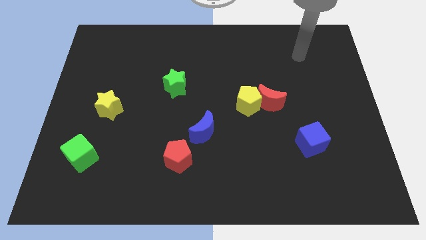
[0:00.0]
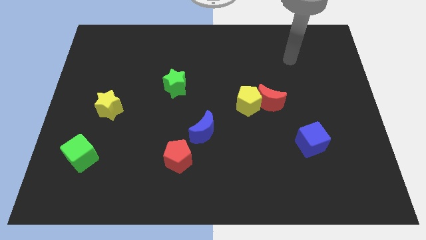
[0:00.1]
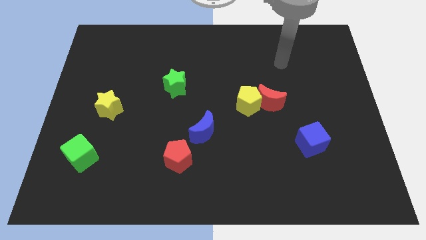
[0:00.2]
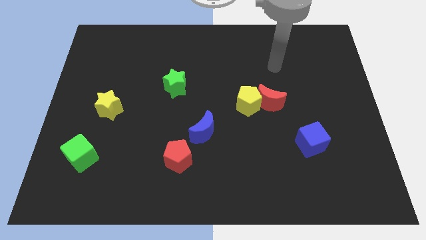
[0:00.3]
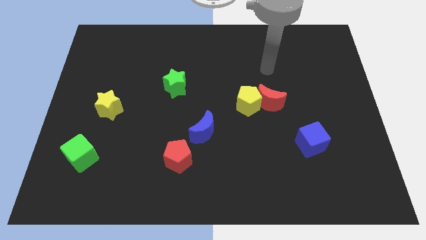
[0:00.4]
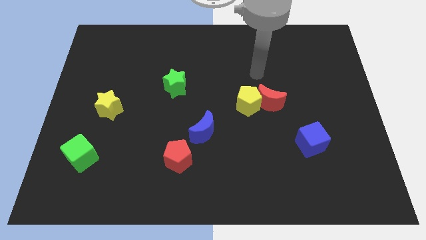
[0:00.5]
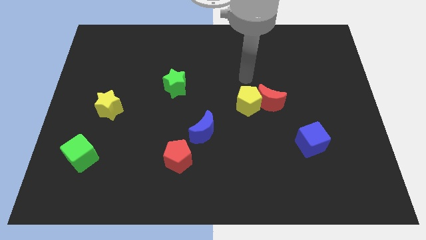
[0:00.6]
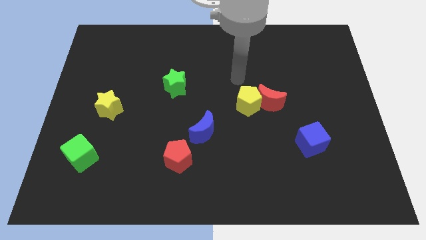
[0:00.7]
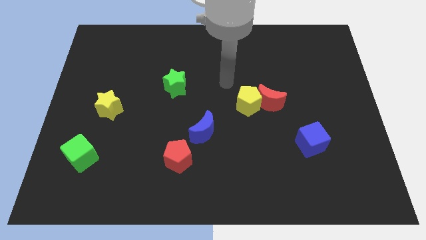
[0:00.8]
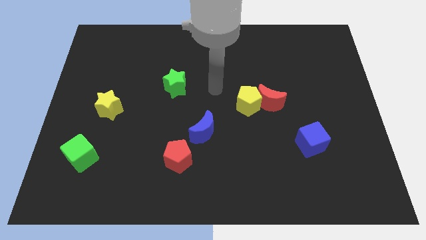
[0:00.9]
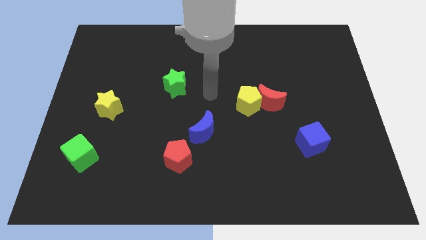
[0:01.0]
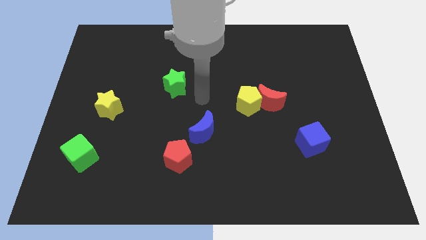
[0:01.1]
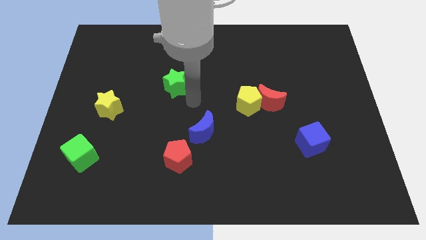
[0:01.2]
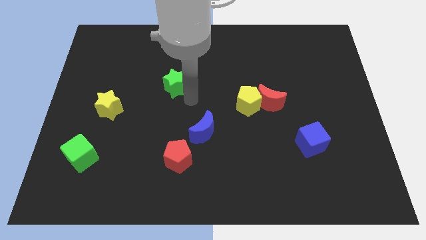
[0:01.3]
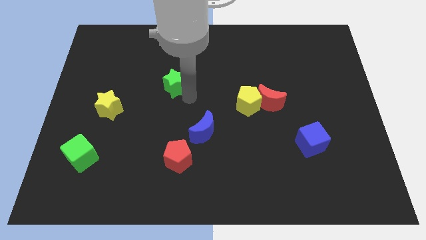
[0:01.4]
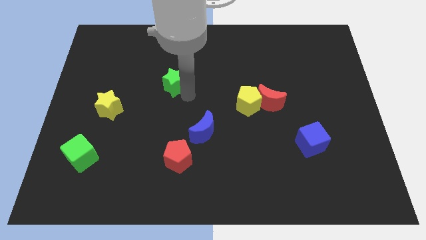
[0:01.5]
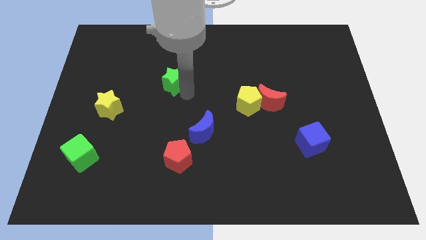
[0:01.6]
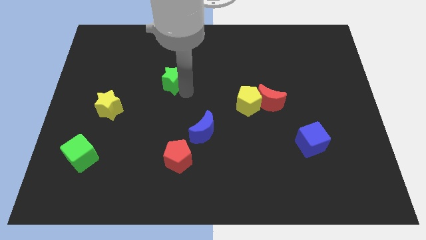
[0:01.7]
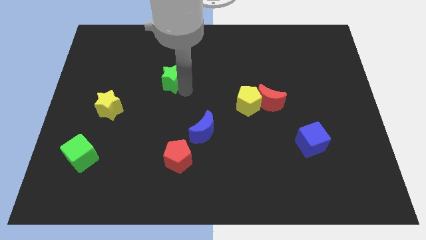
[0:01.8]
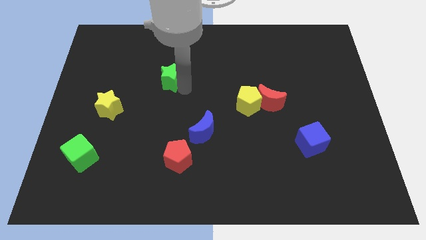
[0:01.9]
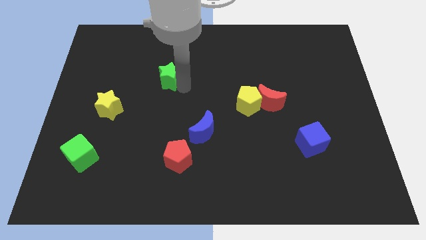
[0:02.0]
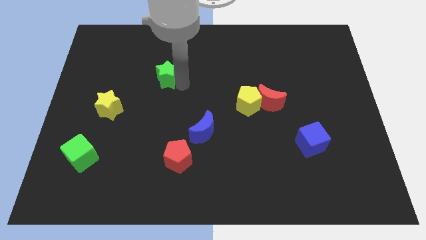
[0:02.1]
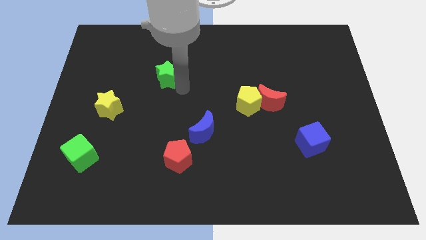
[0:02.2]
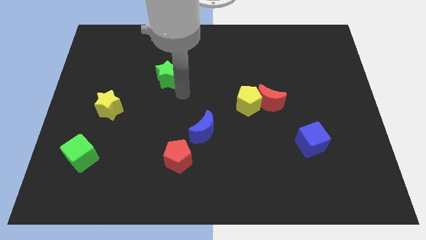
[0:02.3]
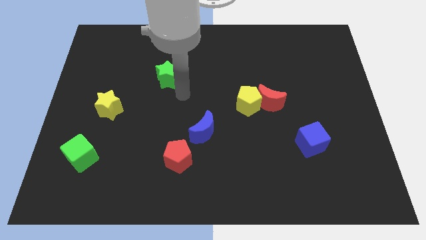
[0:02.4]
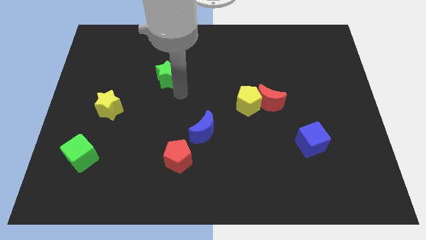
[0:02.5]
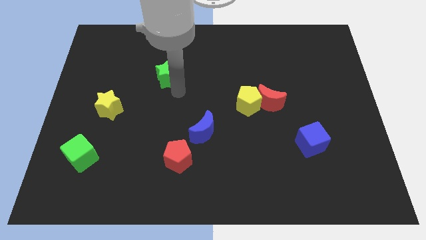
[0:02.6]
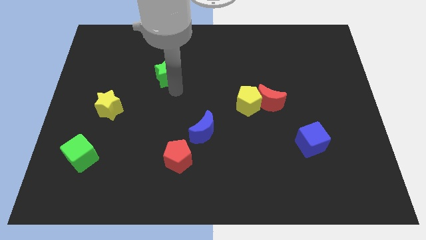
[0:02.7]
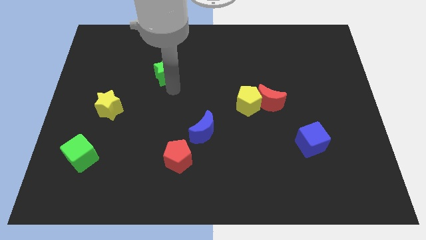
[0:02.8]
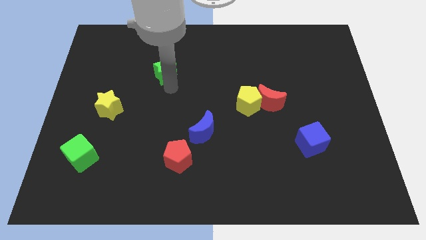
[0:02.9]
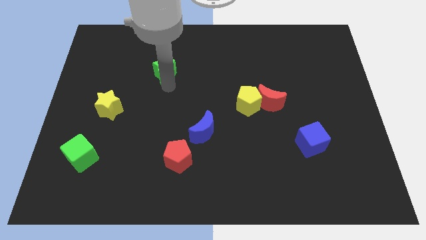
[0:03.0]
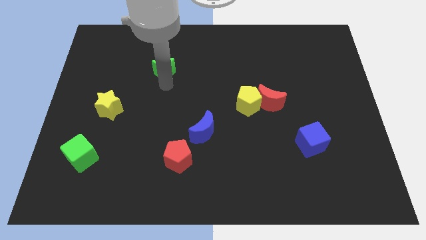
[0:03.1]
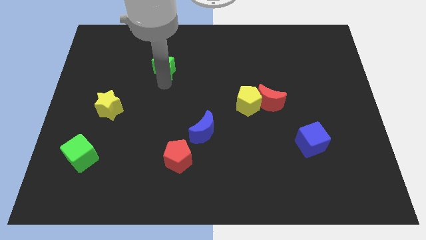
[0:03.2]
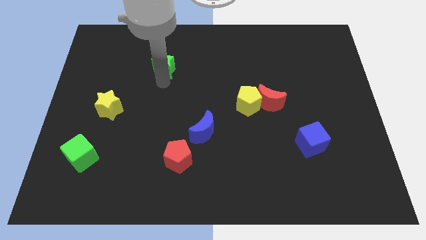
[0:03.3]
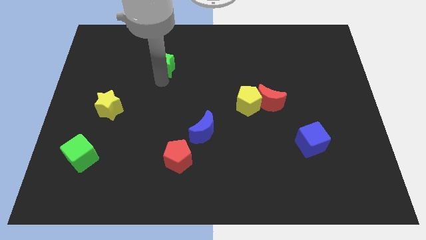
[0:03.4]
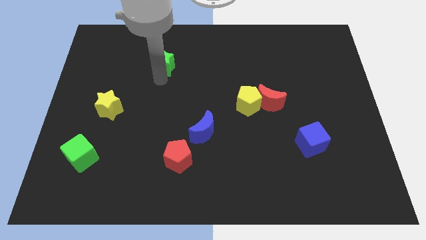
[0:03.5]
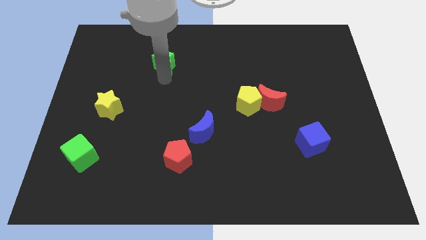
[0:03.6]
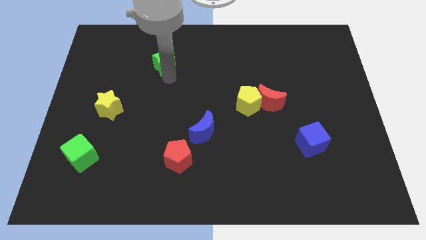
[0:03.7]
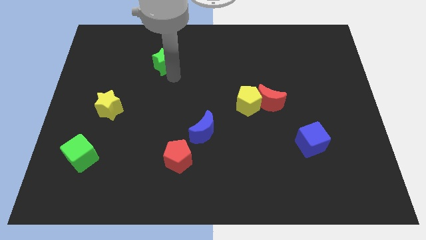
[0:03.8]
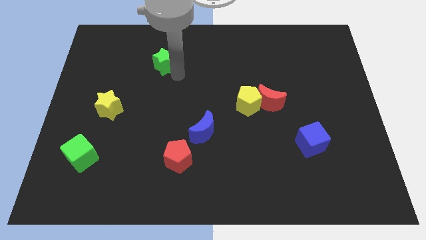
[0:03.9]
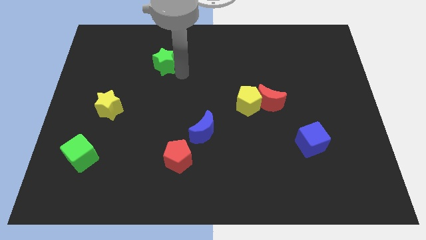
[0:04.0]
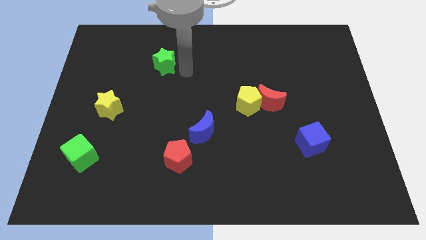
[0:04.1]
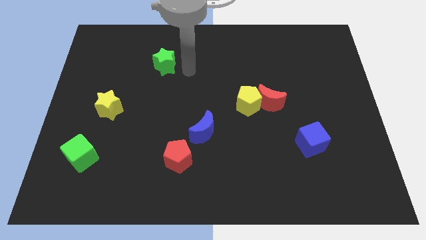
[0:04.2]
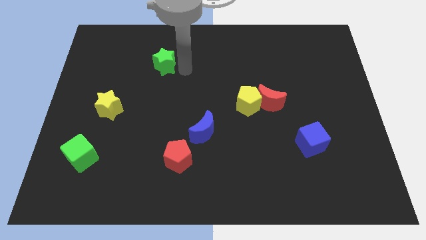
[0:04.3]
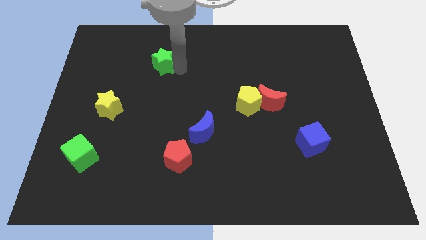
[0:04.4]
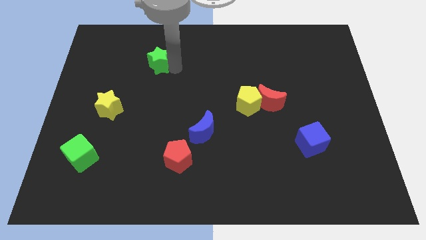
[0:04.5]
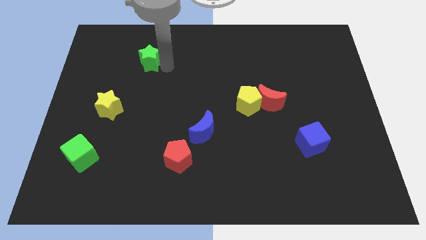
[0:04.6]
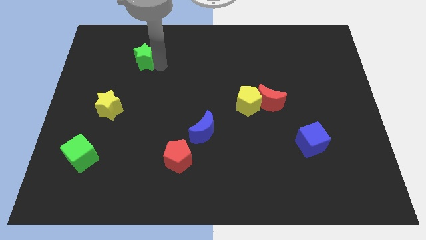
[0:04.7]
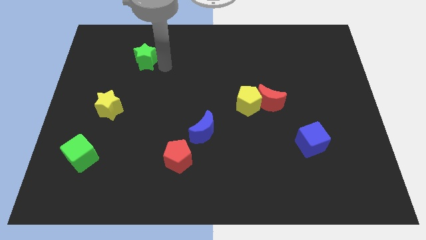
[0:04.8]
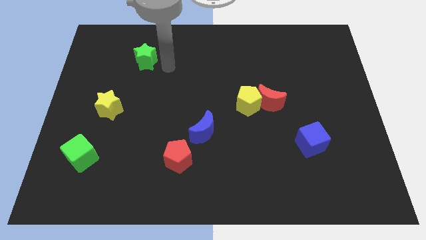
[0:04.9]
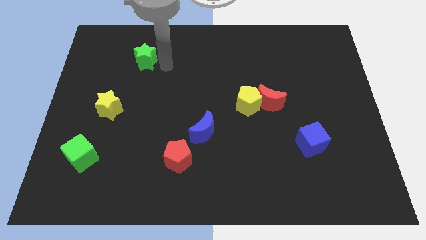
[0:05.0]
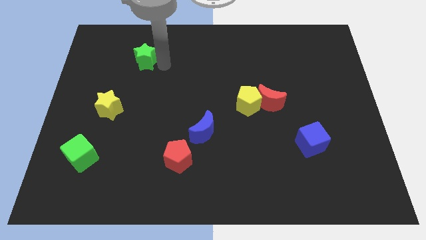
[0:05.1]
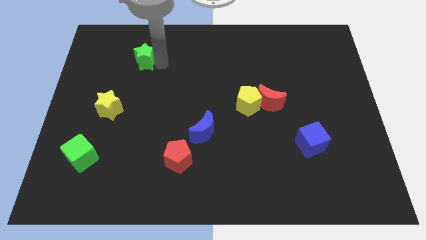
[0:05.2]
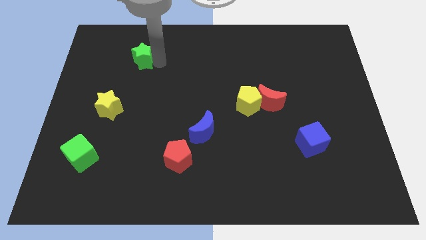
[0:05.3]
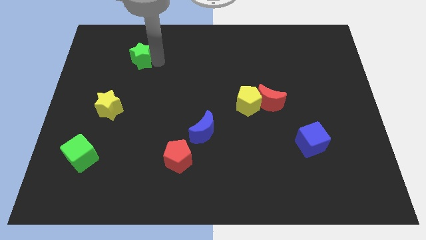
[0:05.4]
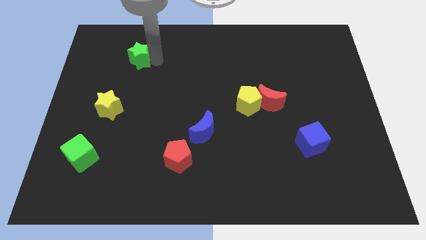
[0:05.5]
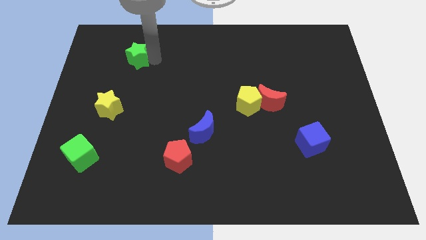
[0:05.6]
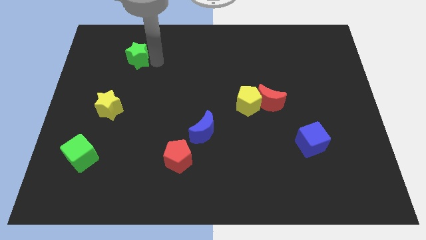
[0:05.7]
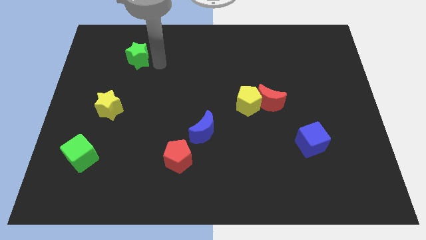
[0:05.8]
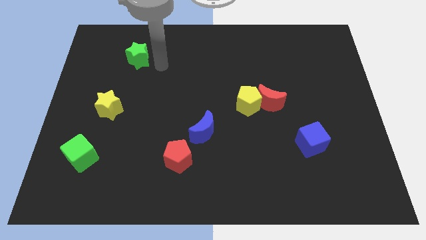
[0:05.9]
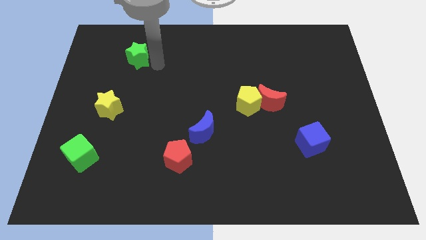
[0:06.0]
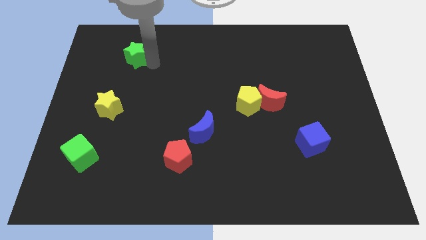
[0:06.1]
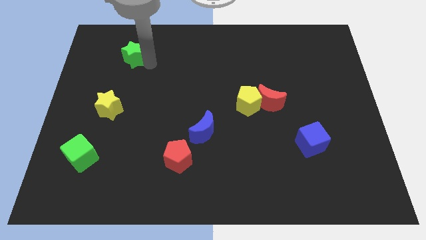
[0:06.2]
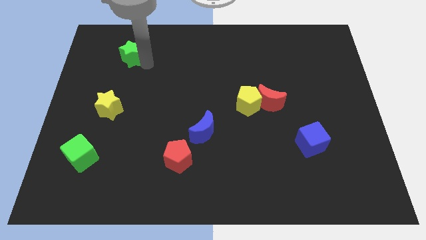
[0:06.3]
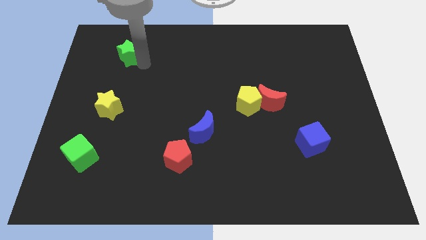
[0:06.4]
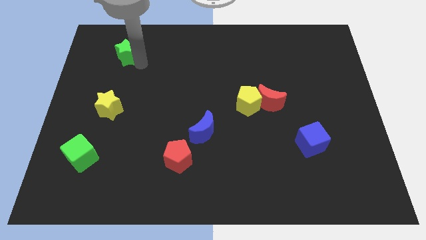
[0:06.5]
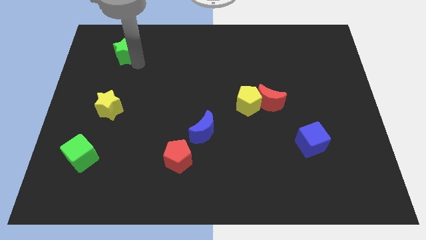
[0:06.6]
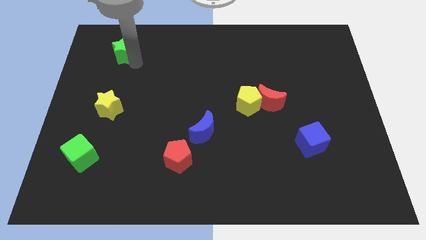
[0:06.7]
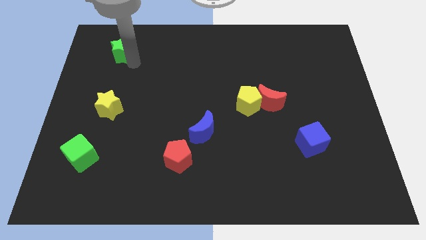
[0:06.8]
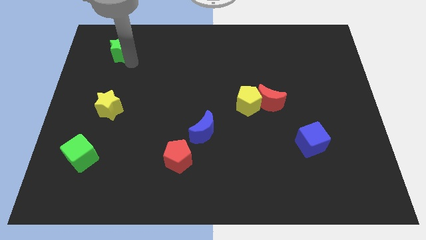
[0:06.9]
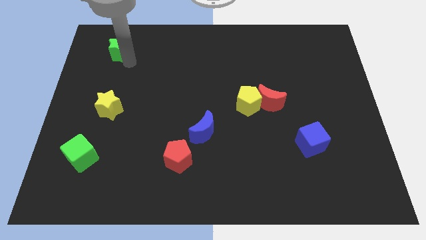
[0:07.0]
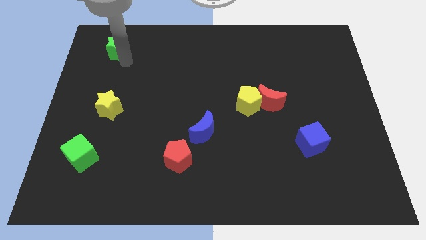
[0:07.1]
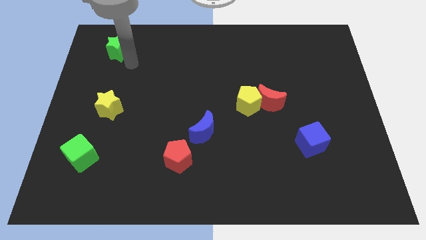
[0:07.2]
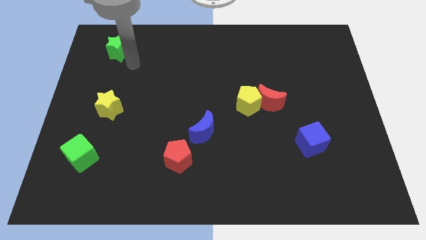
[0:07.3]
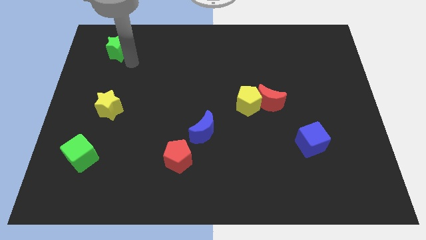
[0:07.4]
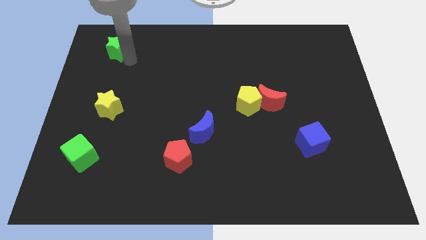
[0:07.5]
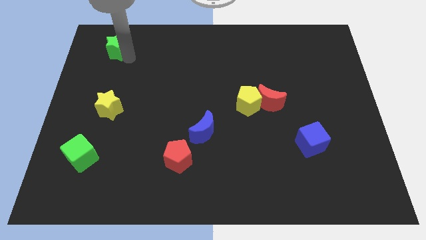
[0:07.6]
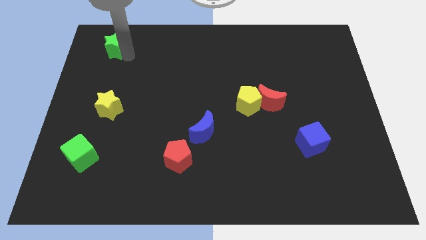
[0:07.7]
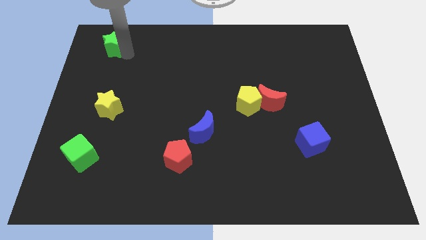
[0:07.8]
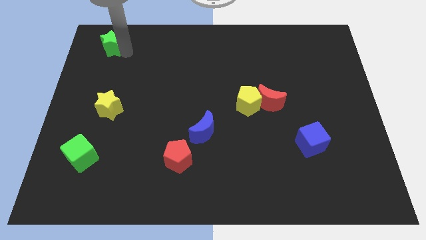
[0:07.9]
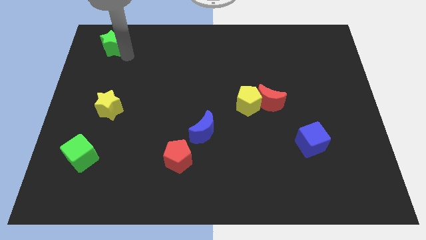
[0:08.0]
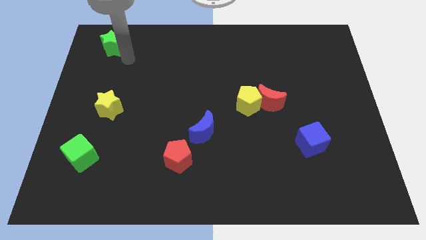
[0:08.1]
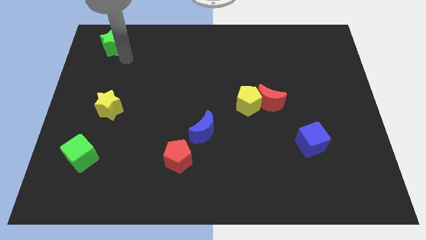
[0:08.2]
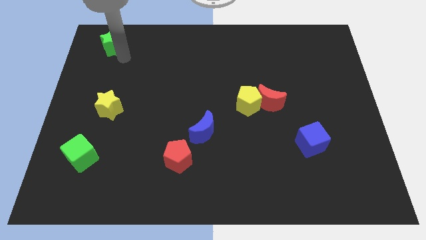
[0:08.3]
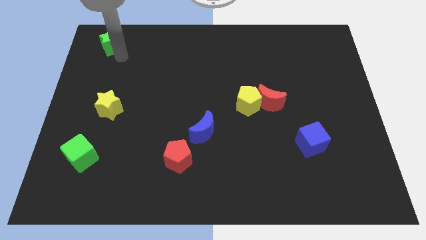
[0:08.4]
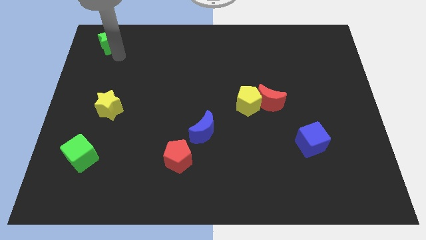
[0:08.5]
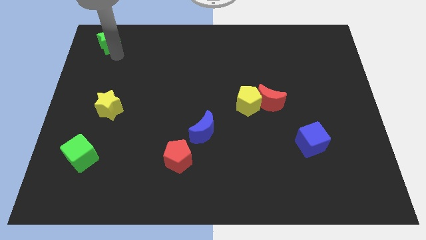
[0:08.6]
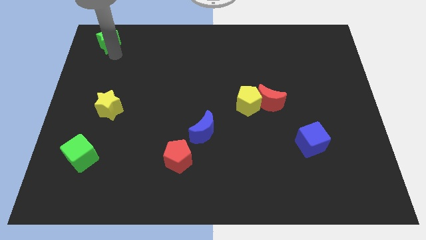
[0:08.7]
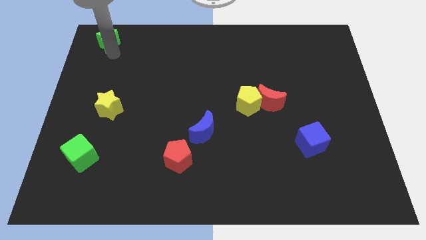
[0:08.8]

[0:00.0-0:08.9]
push the green star to the top left corner
